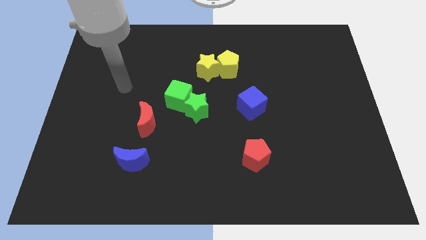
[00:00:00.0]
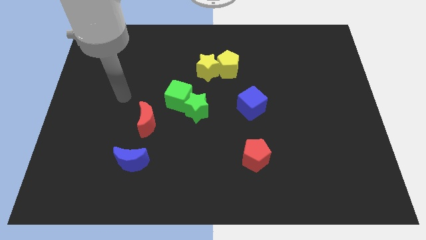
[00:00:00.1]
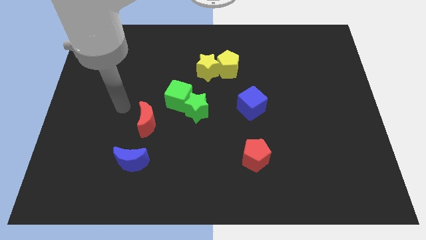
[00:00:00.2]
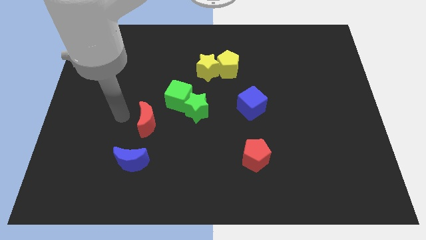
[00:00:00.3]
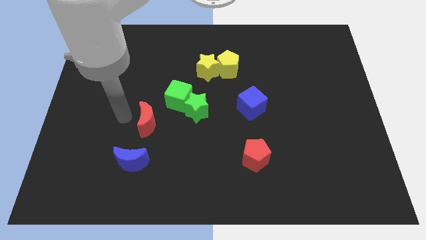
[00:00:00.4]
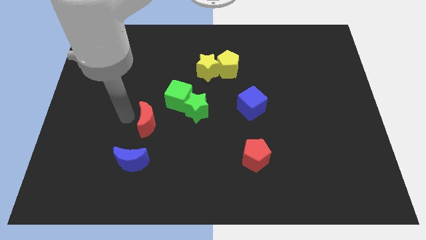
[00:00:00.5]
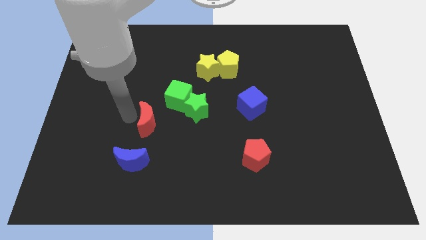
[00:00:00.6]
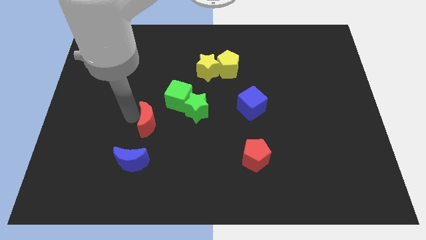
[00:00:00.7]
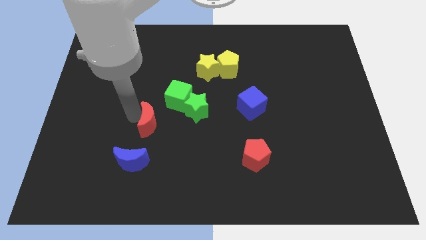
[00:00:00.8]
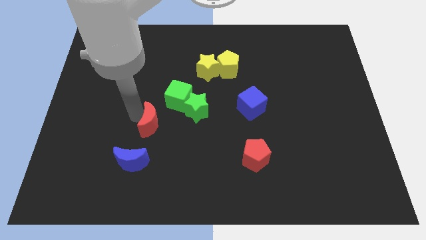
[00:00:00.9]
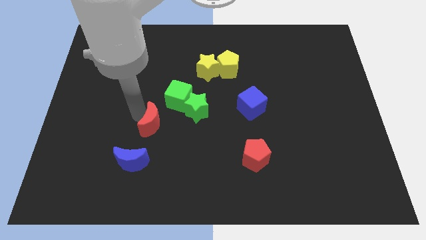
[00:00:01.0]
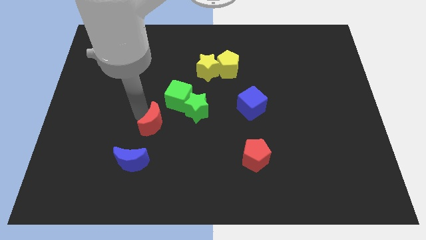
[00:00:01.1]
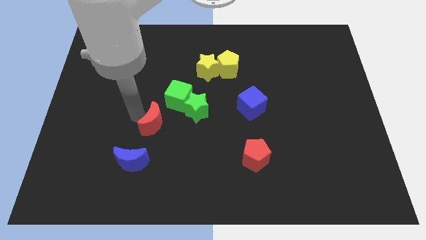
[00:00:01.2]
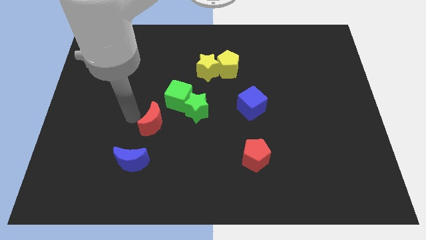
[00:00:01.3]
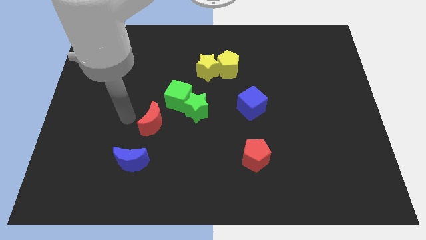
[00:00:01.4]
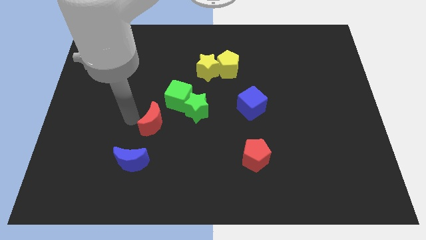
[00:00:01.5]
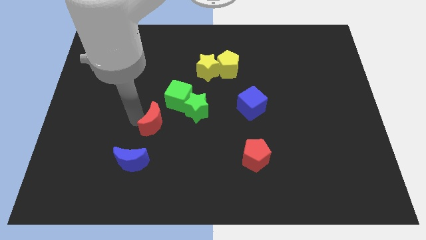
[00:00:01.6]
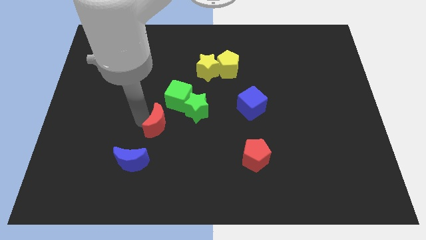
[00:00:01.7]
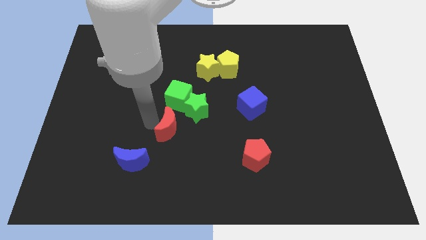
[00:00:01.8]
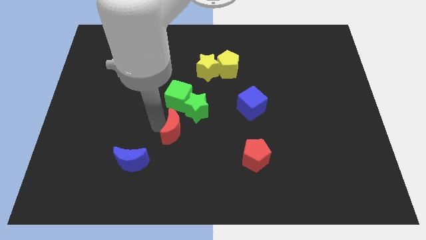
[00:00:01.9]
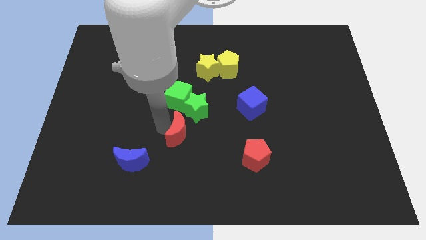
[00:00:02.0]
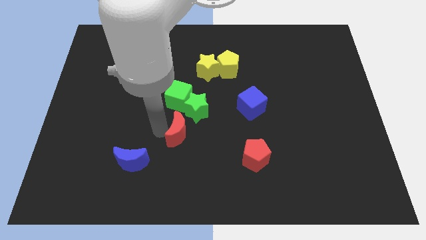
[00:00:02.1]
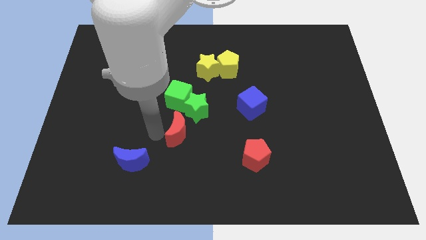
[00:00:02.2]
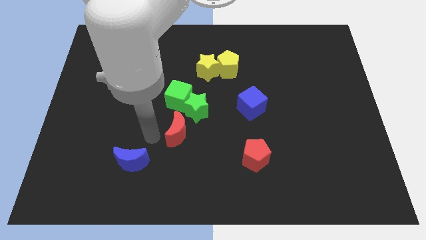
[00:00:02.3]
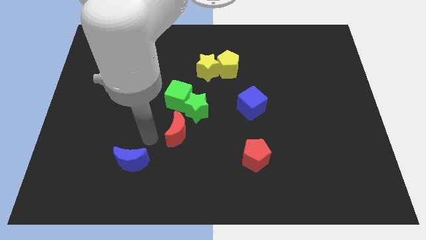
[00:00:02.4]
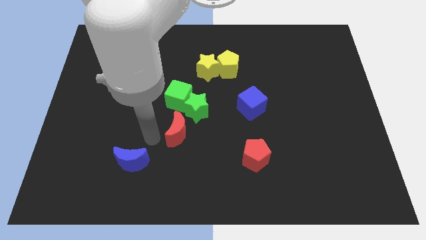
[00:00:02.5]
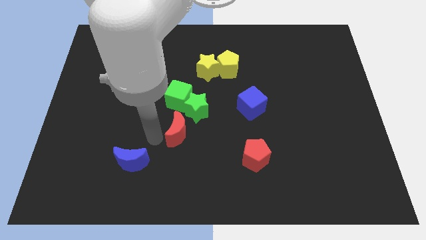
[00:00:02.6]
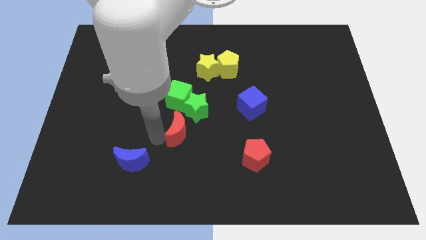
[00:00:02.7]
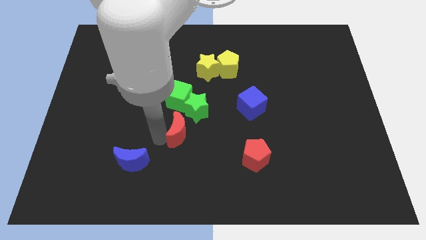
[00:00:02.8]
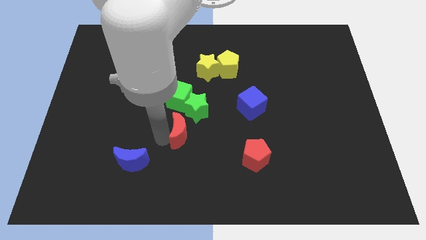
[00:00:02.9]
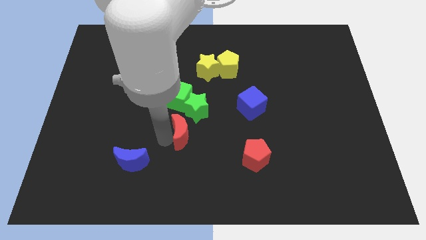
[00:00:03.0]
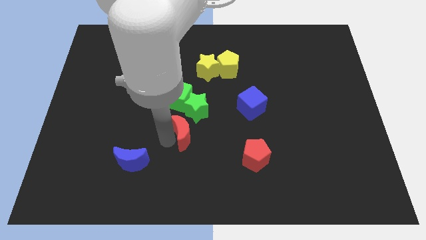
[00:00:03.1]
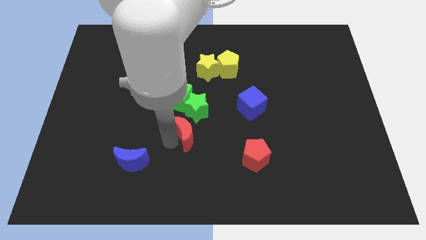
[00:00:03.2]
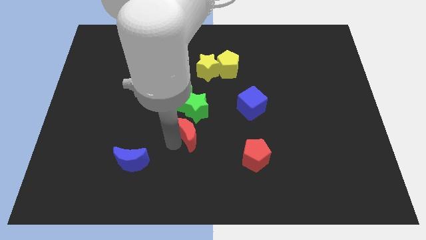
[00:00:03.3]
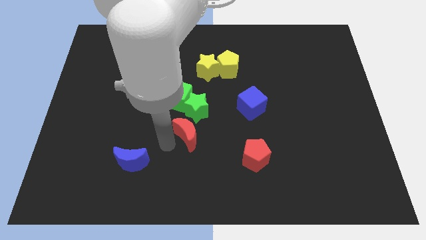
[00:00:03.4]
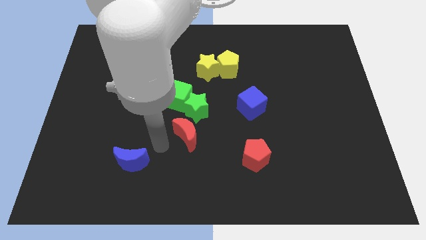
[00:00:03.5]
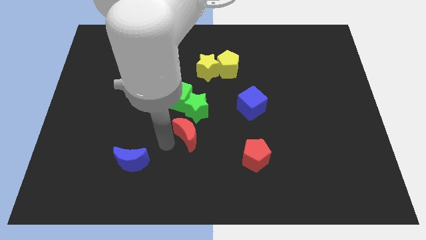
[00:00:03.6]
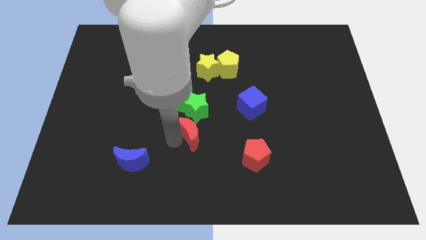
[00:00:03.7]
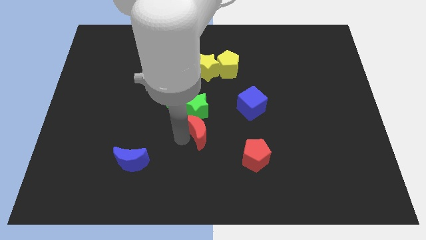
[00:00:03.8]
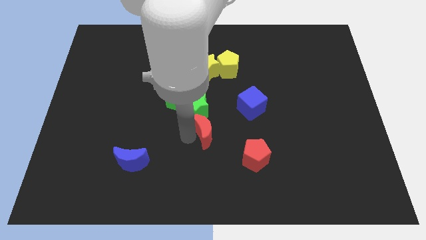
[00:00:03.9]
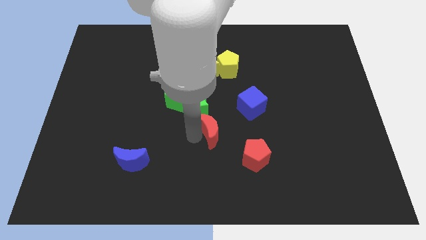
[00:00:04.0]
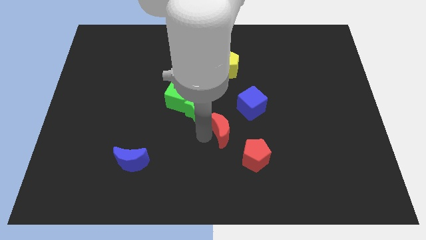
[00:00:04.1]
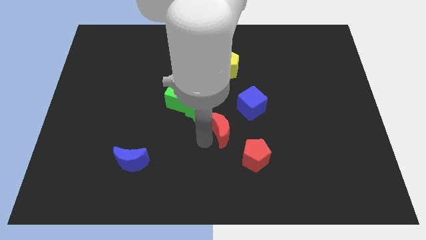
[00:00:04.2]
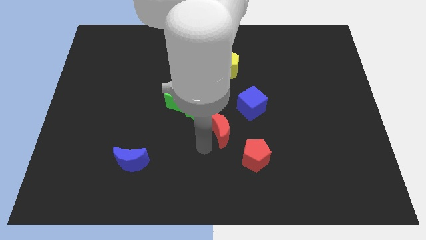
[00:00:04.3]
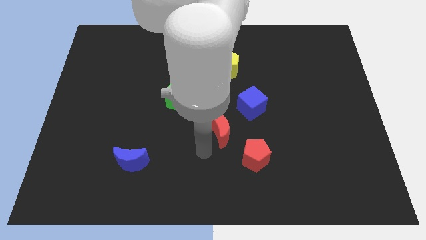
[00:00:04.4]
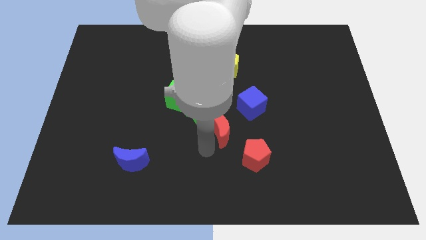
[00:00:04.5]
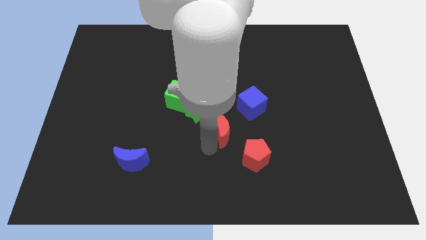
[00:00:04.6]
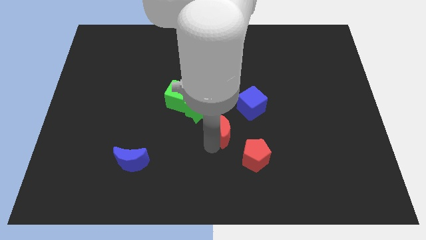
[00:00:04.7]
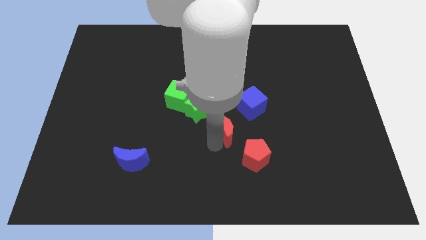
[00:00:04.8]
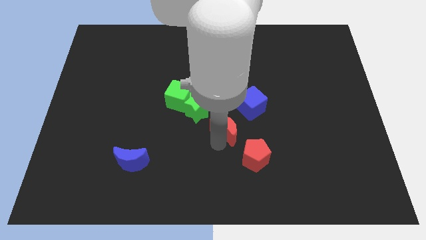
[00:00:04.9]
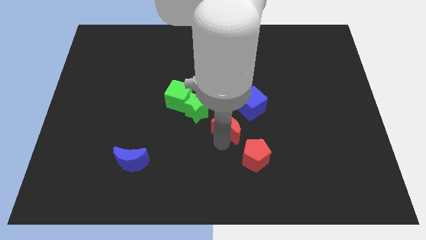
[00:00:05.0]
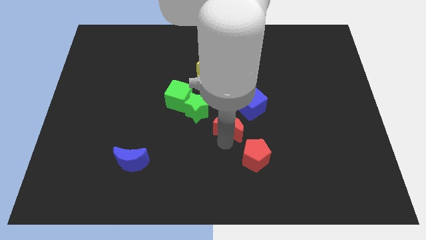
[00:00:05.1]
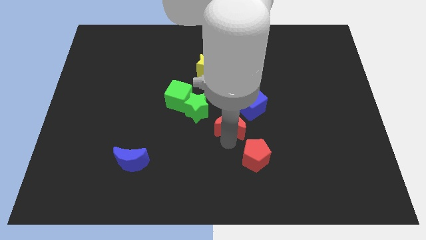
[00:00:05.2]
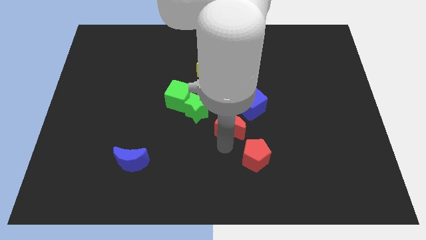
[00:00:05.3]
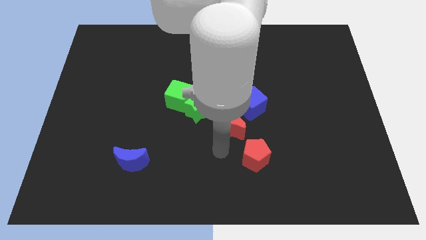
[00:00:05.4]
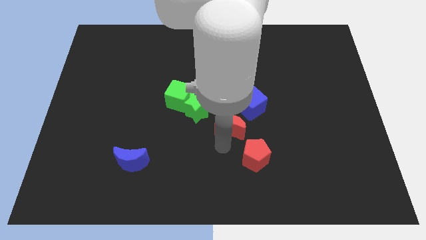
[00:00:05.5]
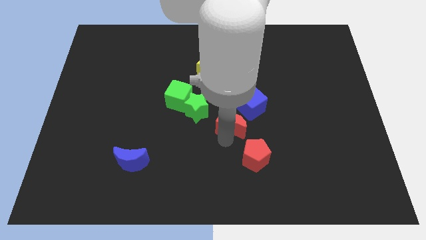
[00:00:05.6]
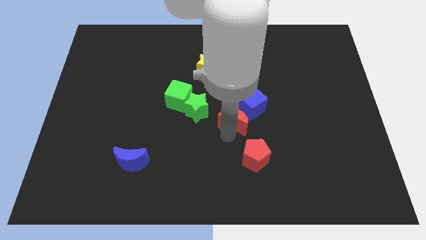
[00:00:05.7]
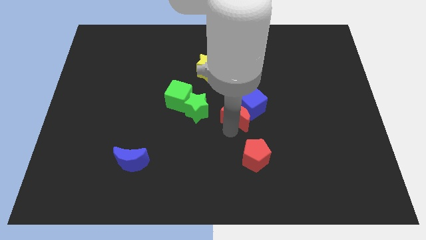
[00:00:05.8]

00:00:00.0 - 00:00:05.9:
push the red moon close to the blue cube

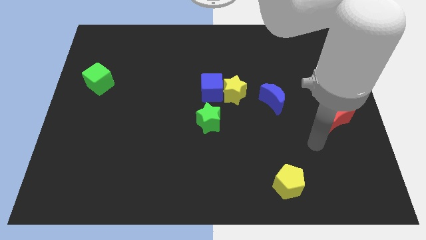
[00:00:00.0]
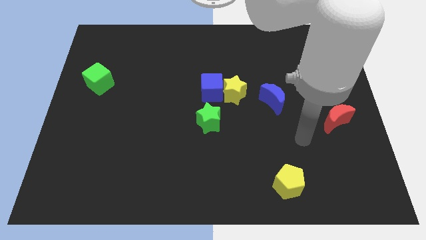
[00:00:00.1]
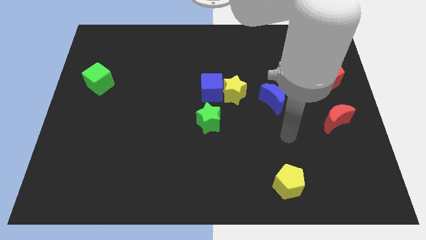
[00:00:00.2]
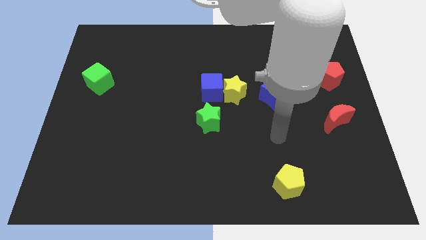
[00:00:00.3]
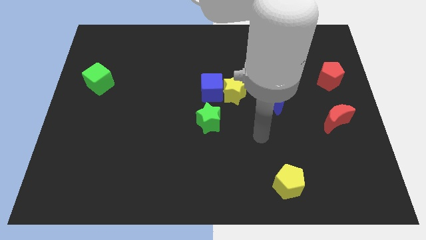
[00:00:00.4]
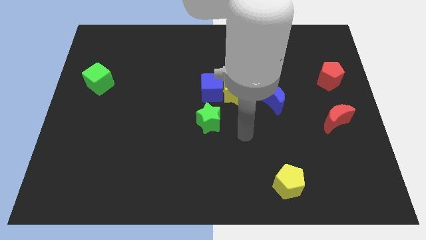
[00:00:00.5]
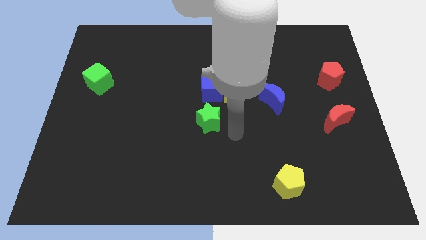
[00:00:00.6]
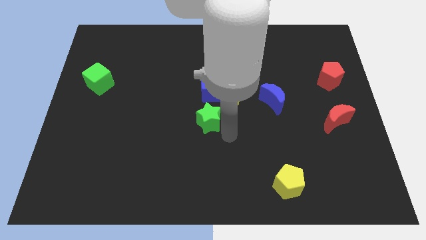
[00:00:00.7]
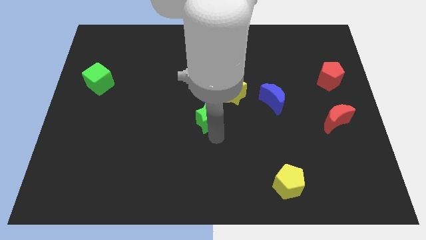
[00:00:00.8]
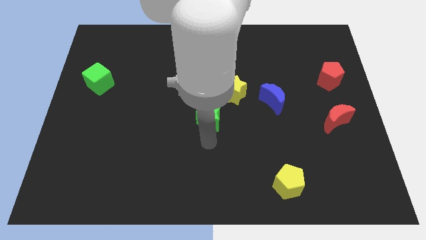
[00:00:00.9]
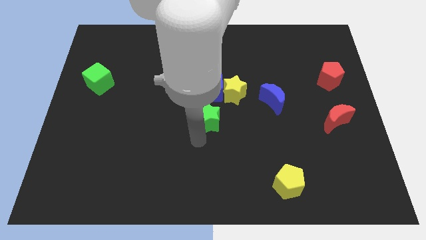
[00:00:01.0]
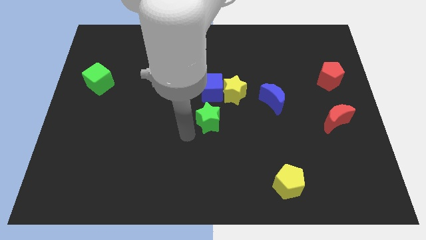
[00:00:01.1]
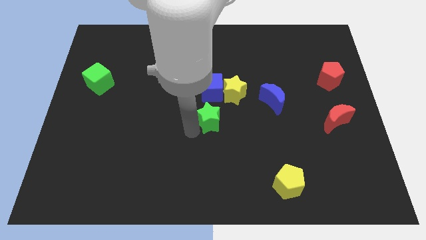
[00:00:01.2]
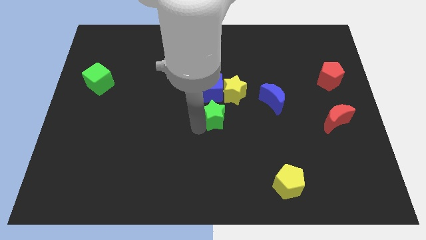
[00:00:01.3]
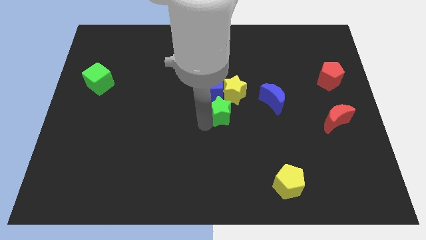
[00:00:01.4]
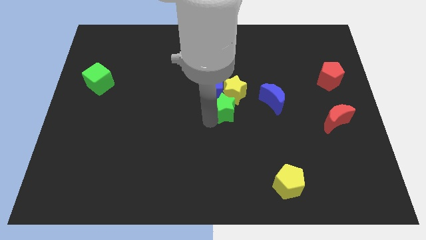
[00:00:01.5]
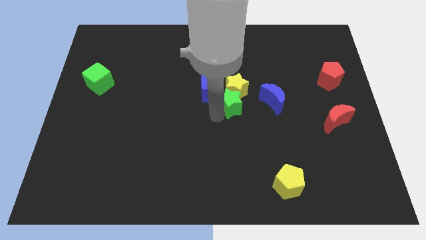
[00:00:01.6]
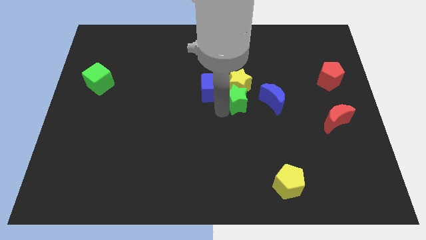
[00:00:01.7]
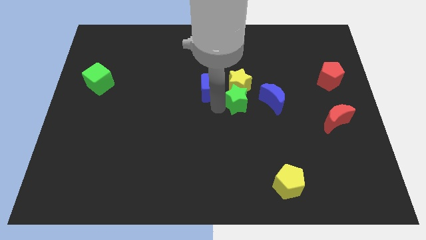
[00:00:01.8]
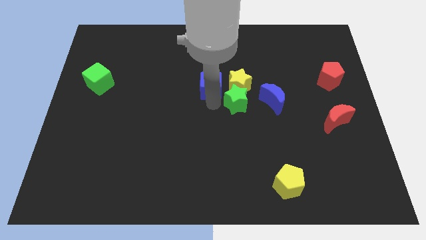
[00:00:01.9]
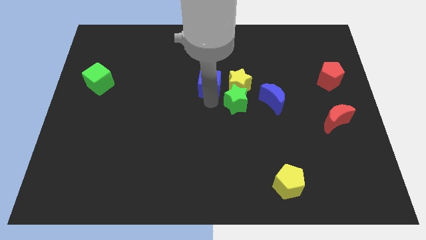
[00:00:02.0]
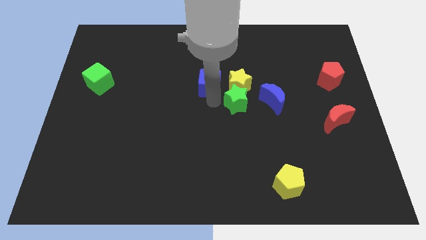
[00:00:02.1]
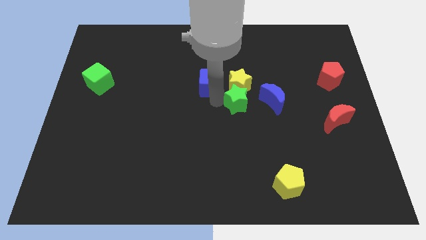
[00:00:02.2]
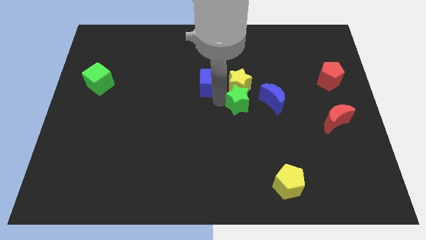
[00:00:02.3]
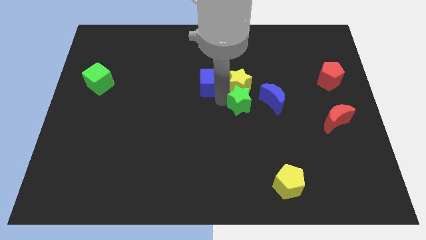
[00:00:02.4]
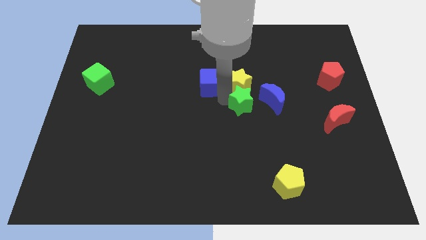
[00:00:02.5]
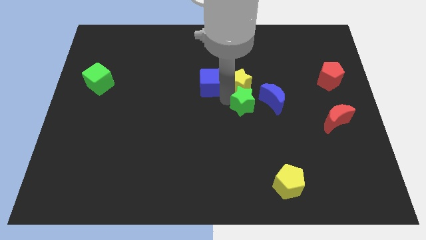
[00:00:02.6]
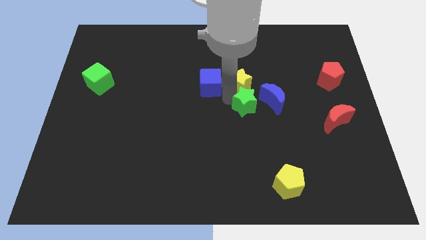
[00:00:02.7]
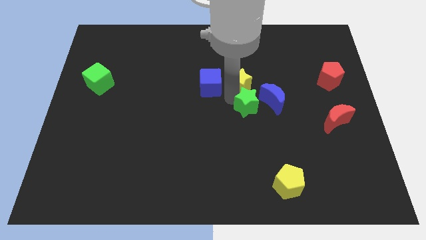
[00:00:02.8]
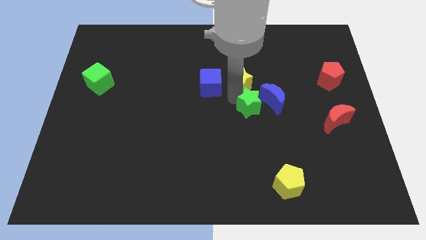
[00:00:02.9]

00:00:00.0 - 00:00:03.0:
push the green star next to the blue moon
